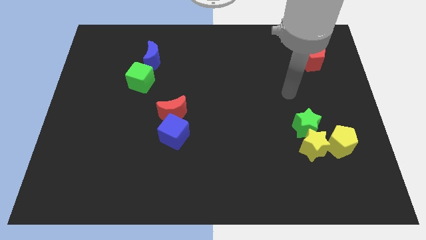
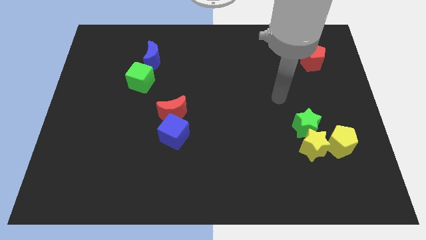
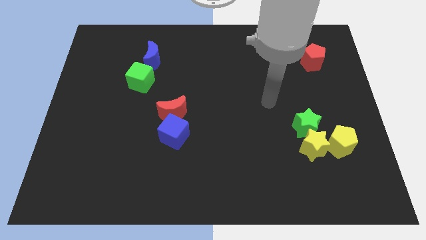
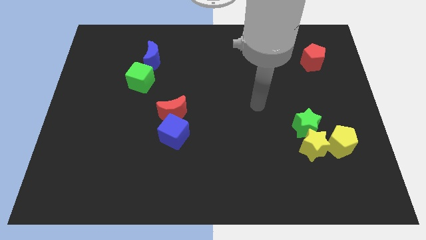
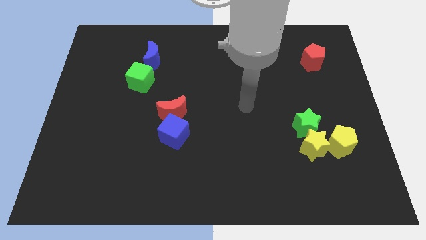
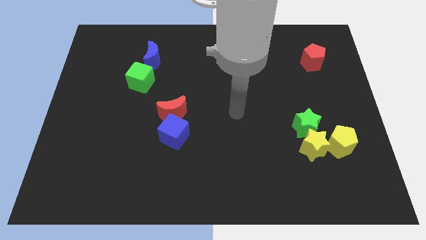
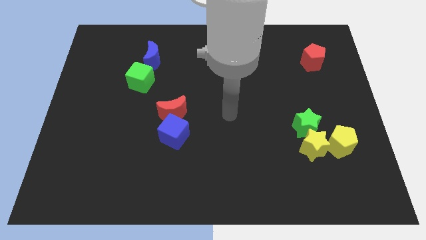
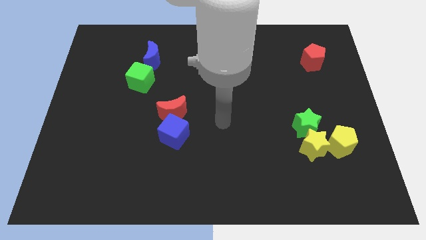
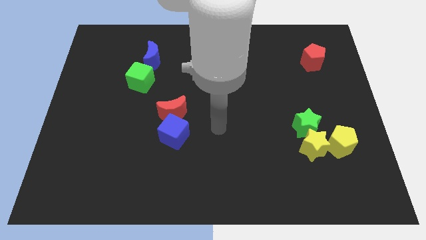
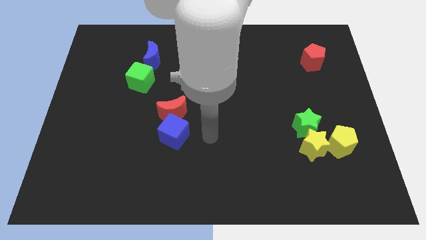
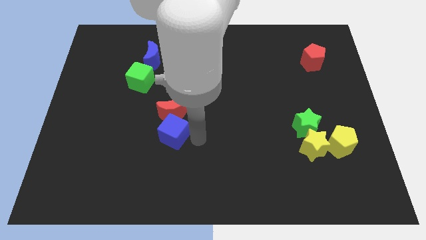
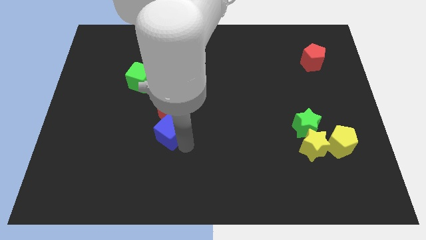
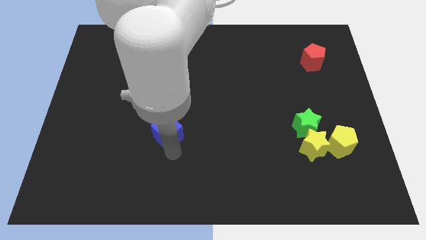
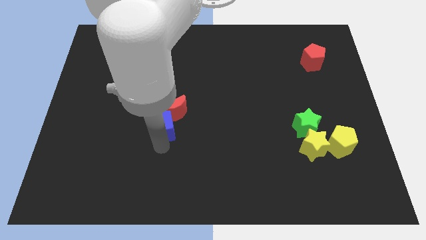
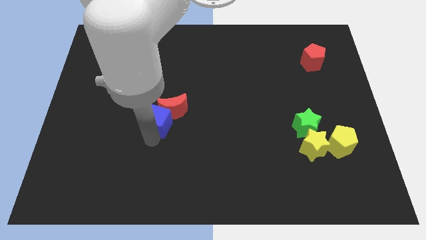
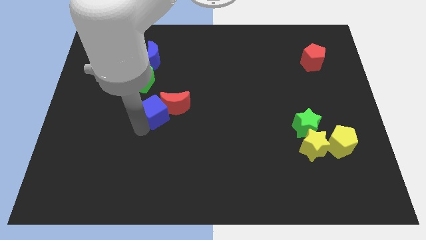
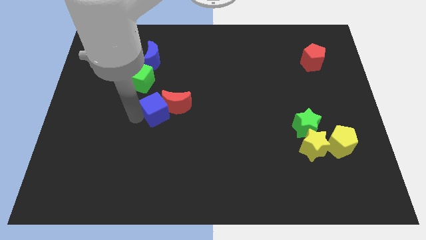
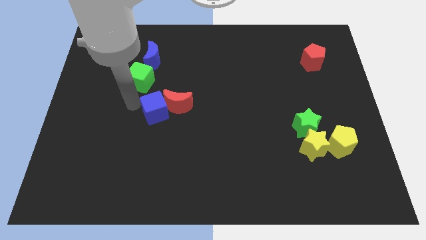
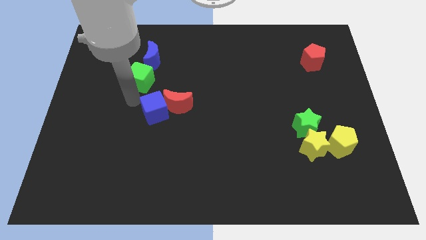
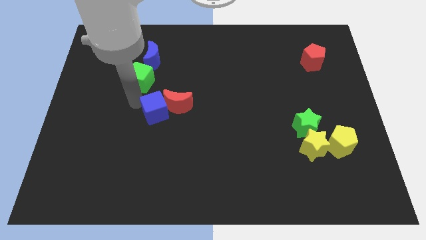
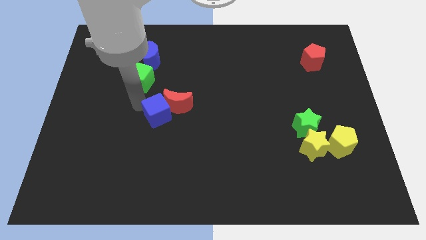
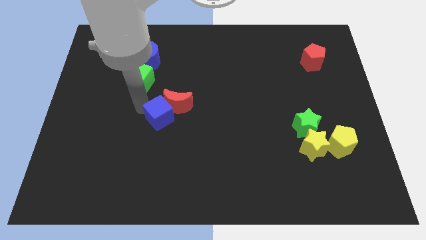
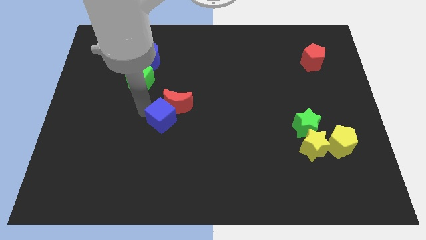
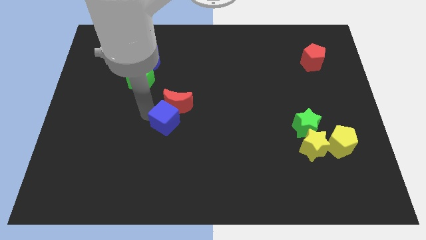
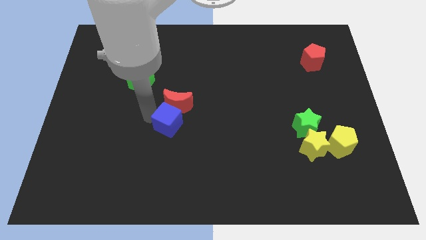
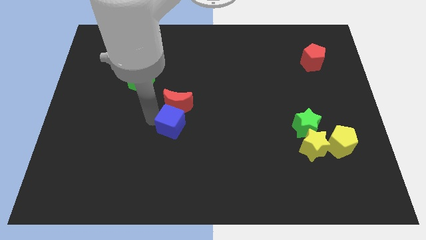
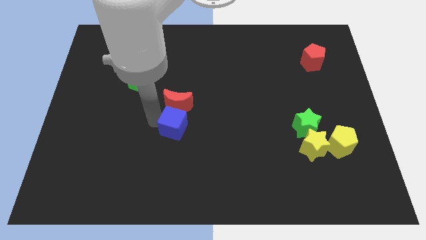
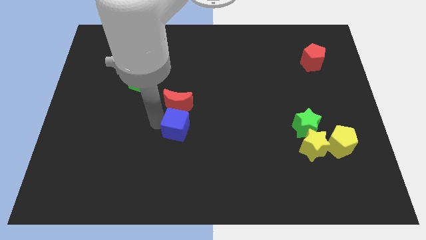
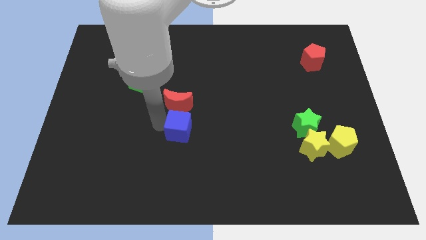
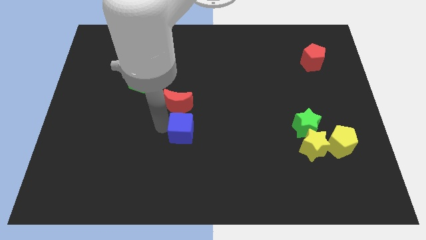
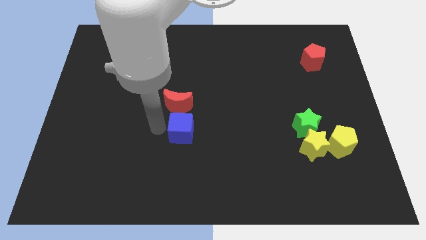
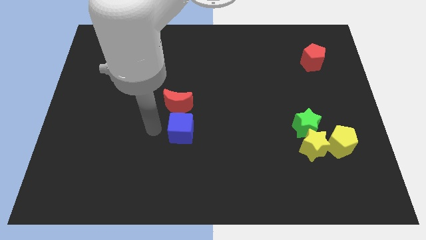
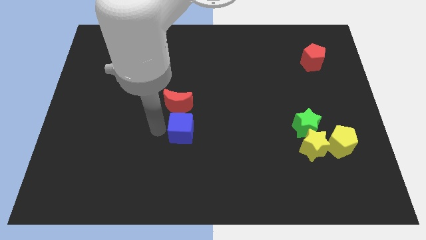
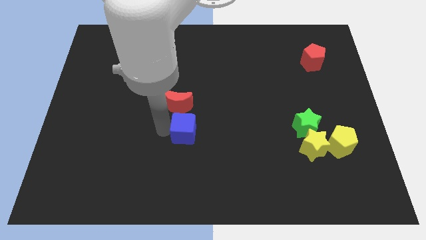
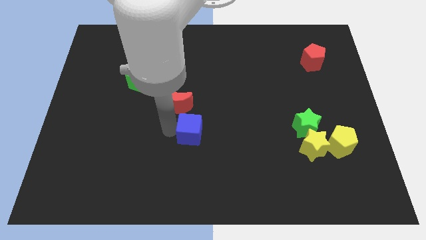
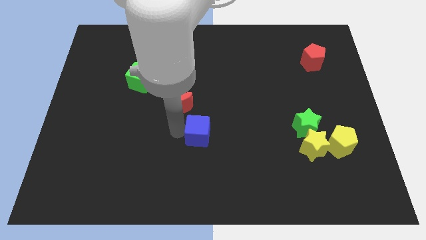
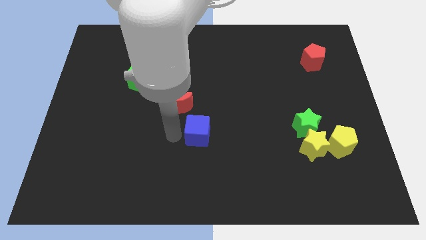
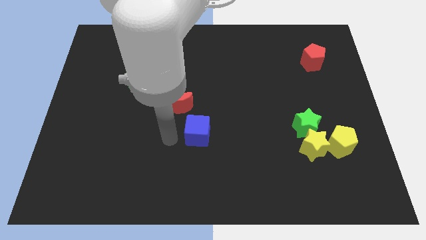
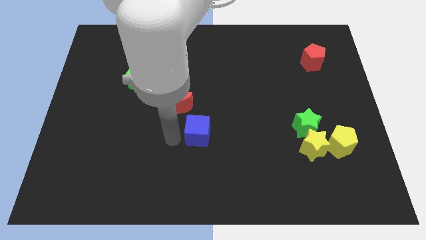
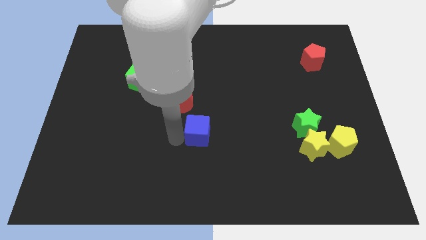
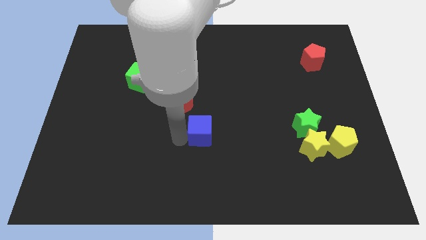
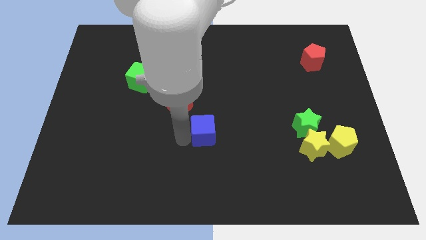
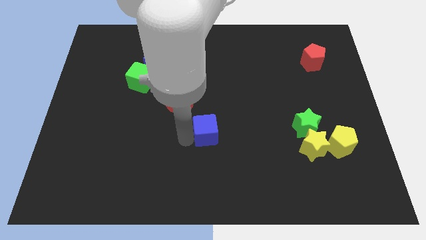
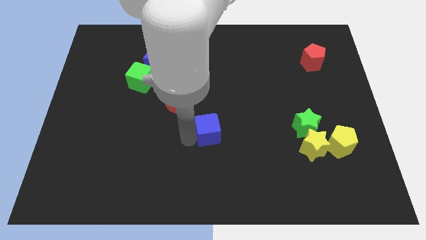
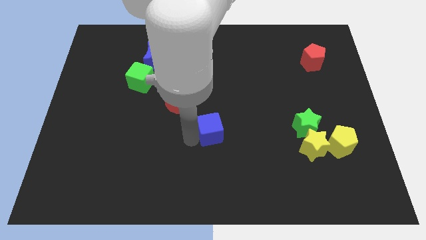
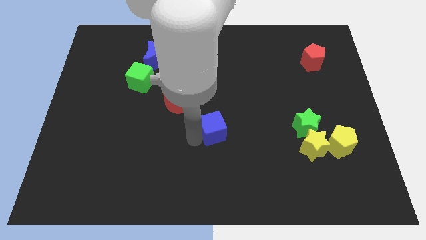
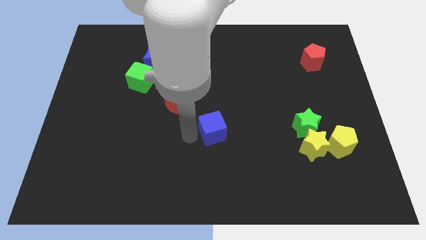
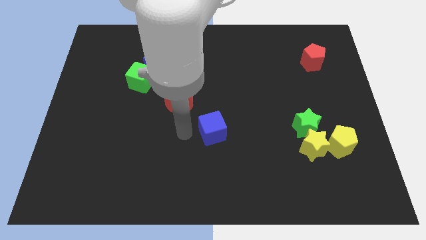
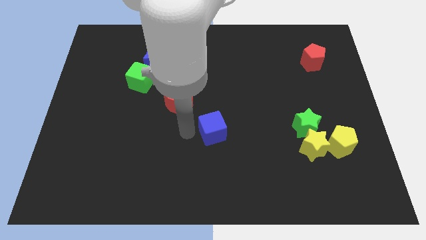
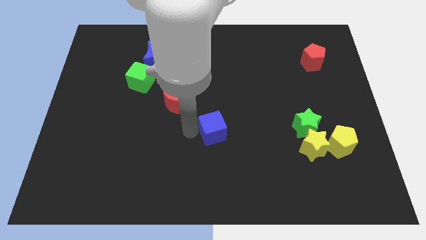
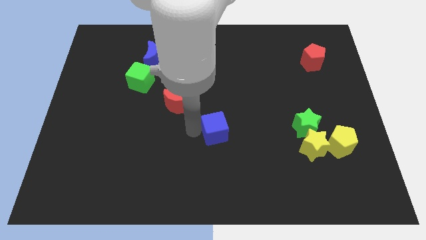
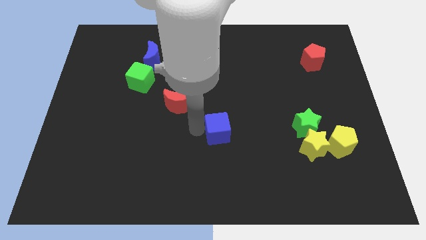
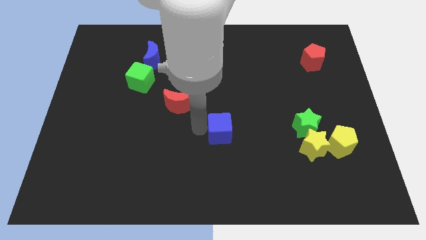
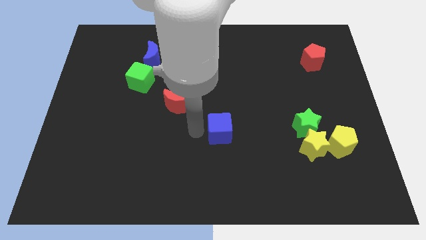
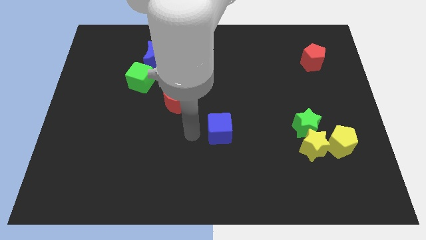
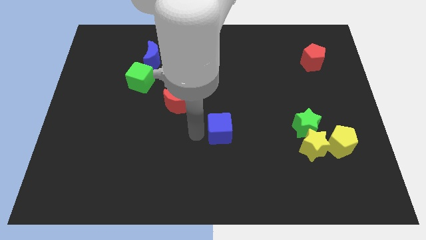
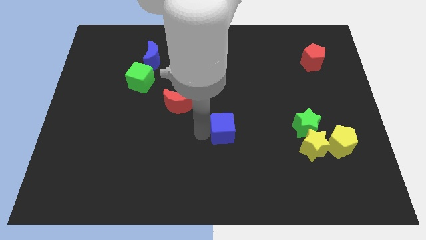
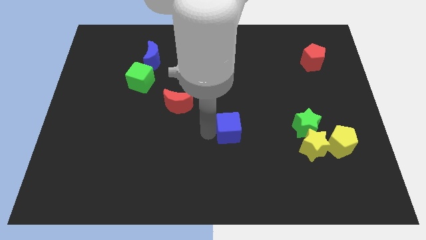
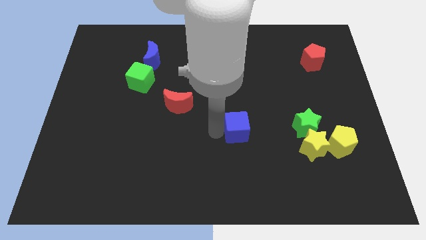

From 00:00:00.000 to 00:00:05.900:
slide the blue cube to the left of the green star

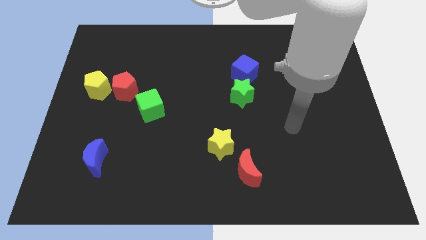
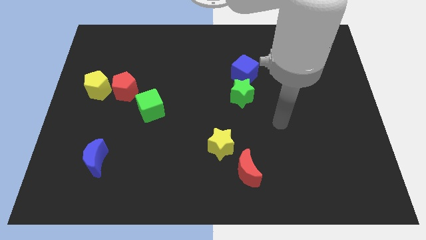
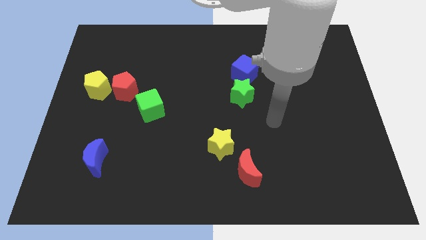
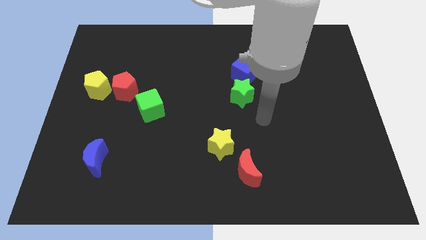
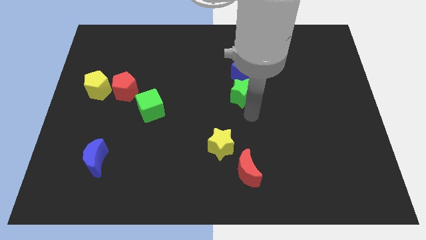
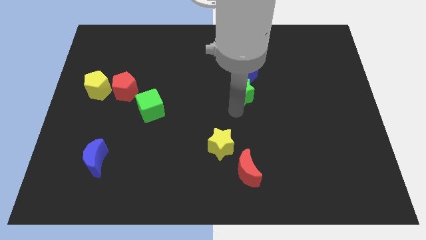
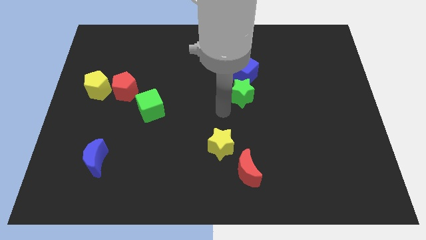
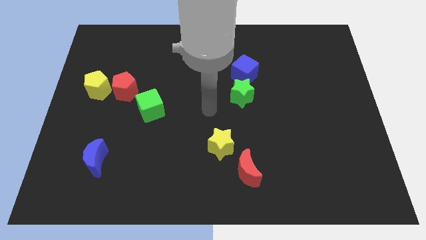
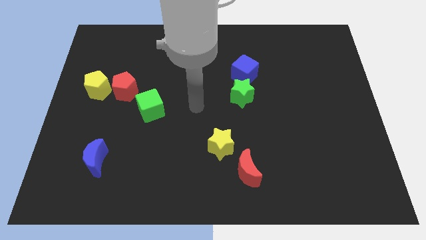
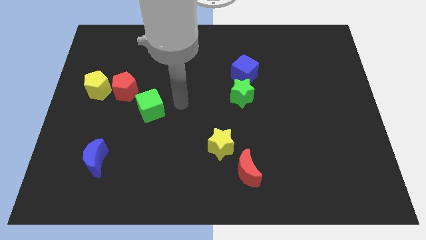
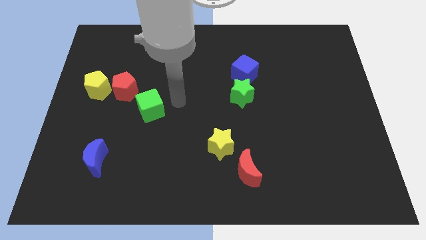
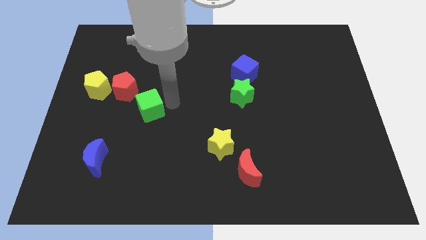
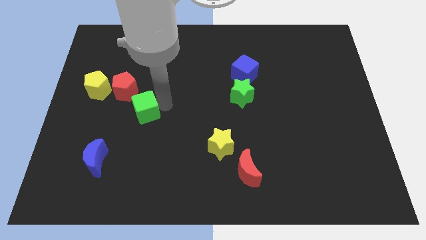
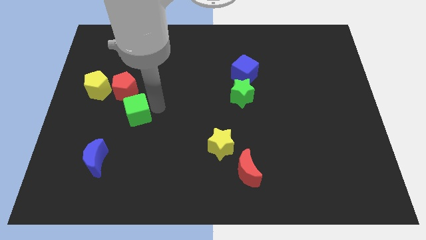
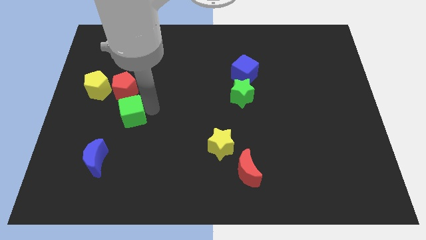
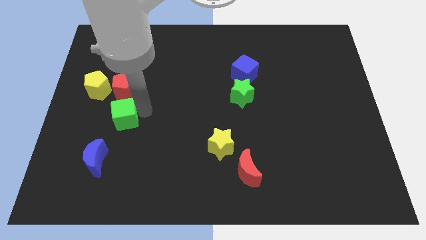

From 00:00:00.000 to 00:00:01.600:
put the green cube above the blue moon
